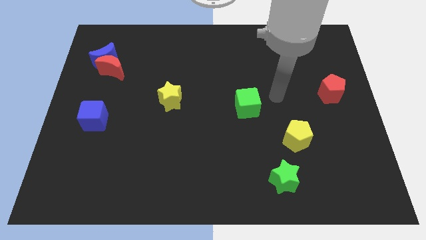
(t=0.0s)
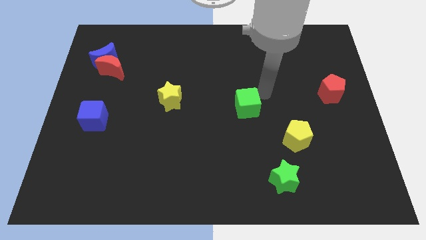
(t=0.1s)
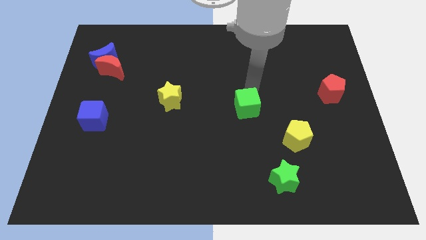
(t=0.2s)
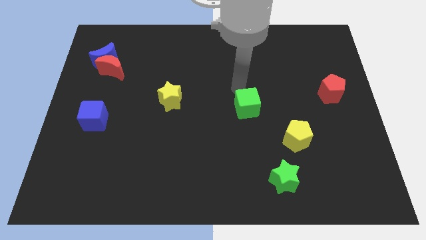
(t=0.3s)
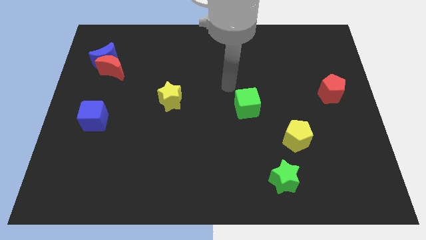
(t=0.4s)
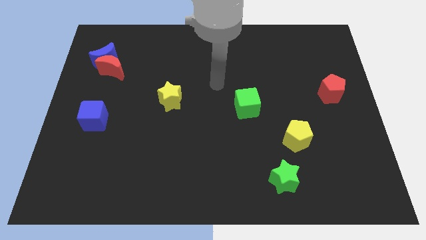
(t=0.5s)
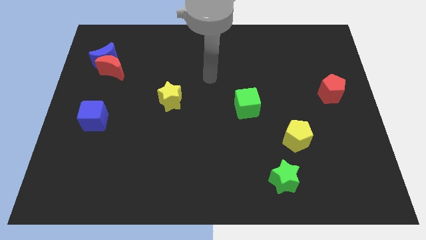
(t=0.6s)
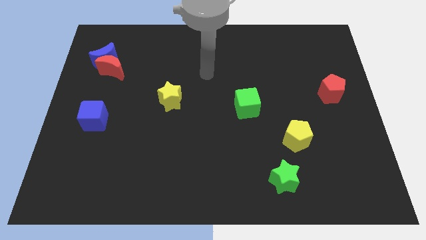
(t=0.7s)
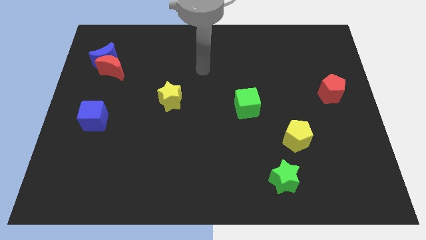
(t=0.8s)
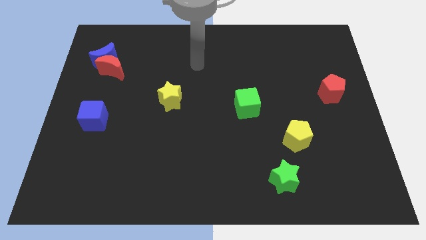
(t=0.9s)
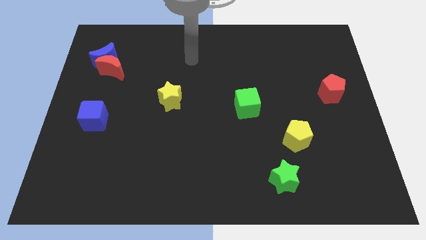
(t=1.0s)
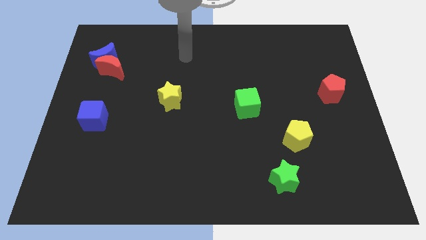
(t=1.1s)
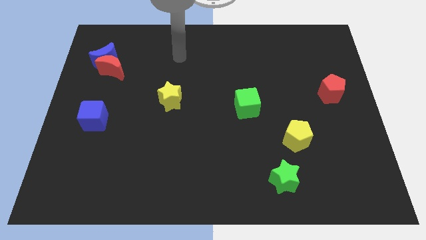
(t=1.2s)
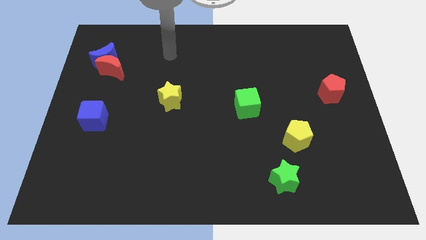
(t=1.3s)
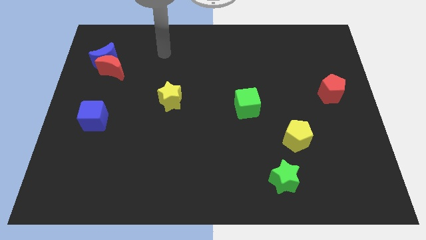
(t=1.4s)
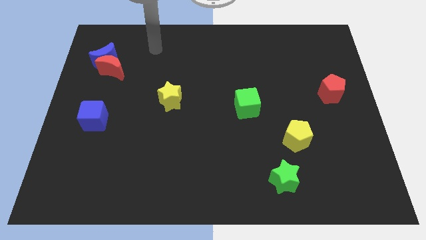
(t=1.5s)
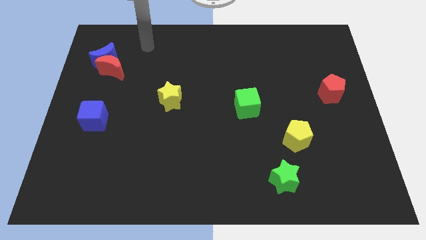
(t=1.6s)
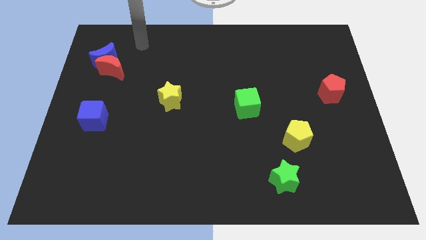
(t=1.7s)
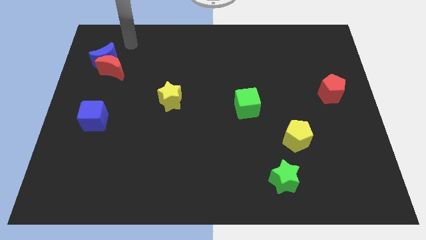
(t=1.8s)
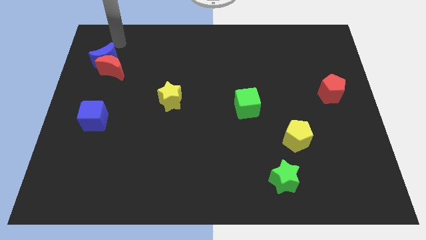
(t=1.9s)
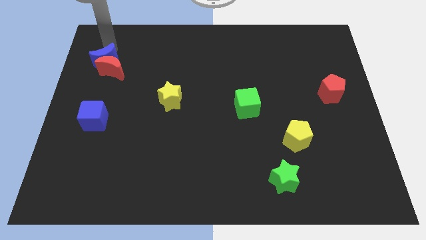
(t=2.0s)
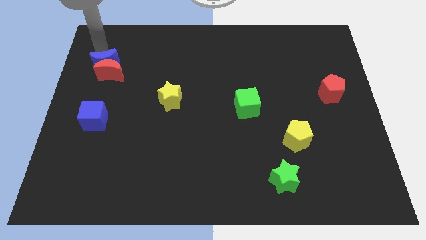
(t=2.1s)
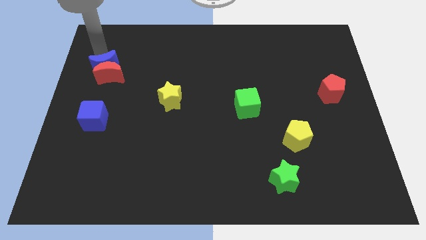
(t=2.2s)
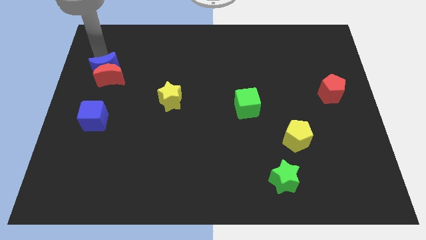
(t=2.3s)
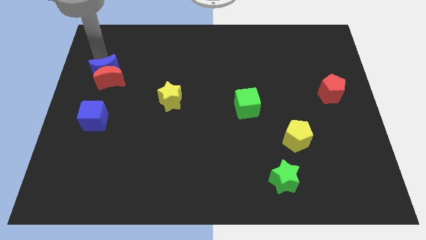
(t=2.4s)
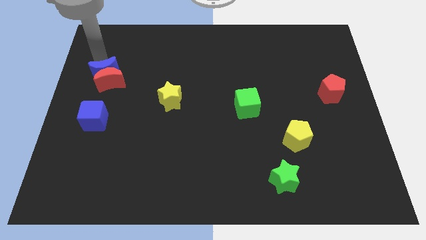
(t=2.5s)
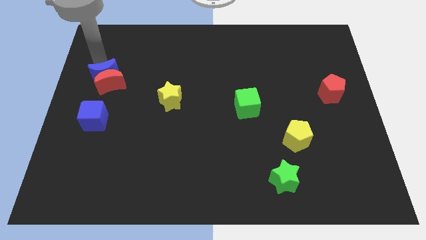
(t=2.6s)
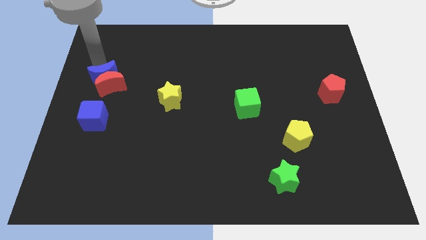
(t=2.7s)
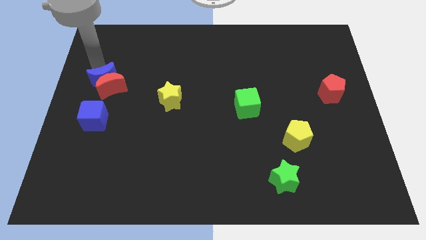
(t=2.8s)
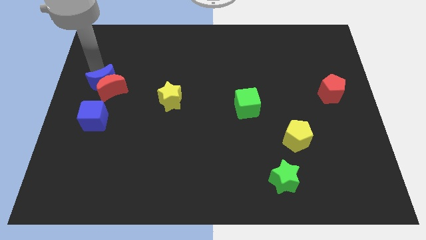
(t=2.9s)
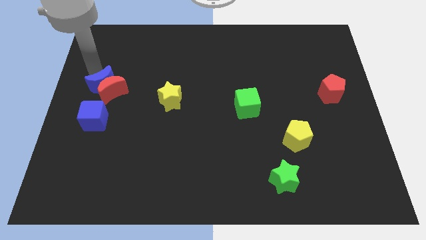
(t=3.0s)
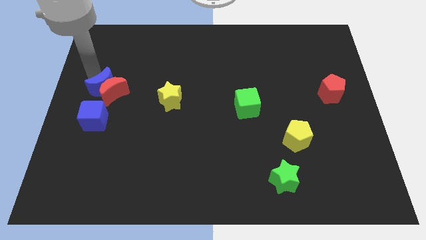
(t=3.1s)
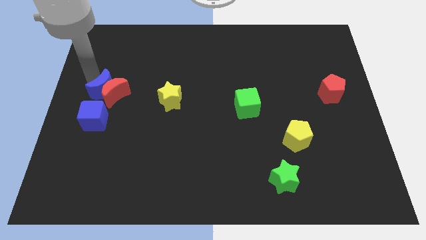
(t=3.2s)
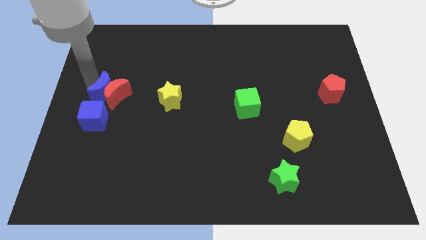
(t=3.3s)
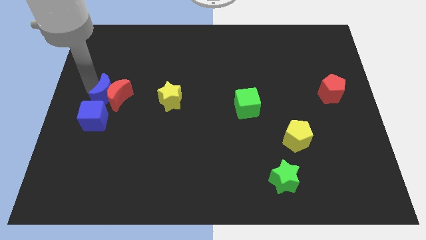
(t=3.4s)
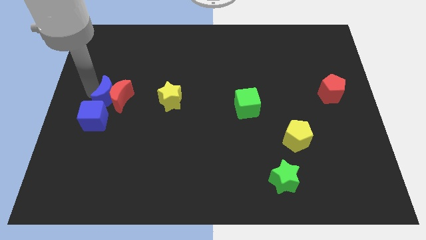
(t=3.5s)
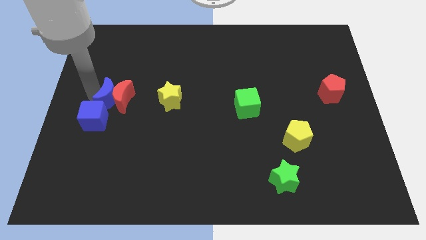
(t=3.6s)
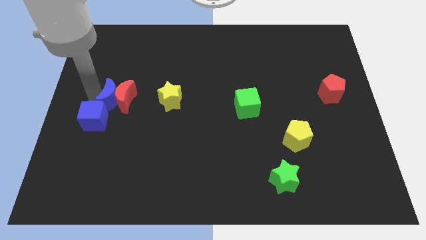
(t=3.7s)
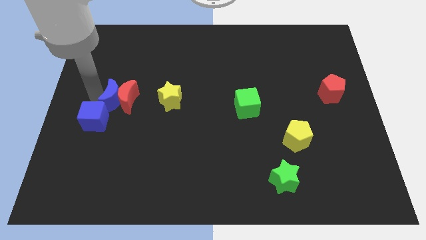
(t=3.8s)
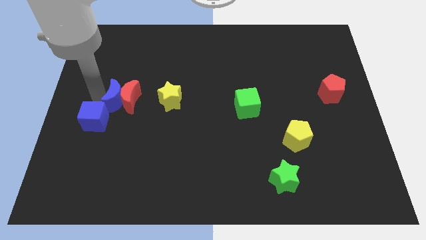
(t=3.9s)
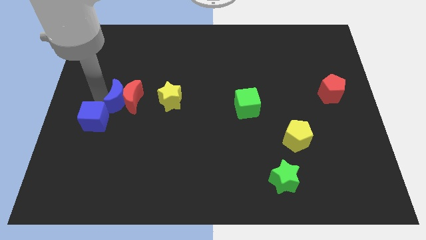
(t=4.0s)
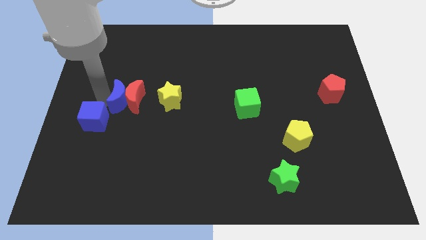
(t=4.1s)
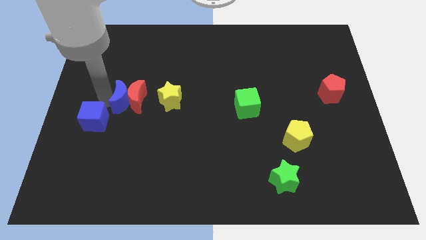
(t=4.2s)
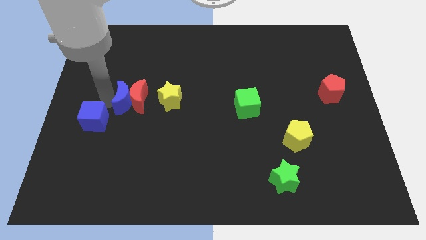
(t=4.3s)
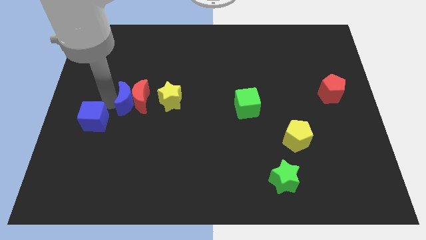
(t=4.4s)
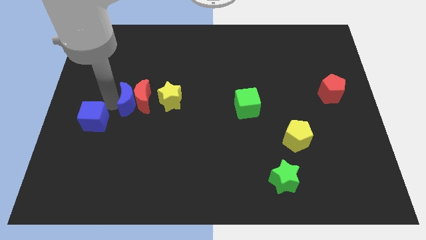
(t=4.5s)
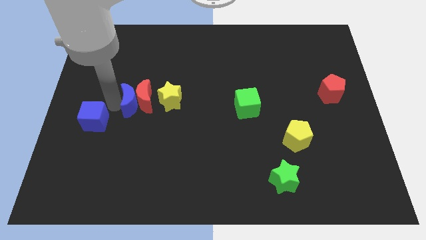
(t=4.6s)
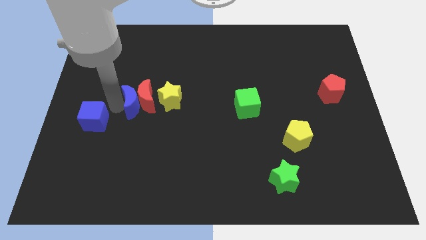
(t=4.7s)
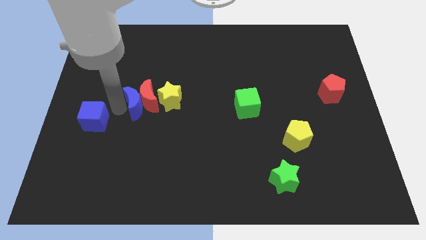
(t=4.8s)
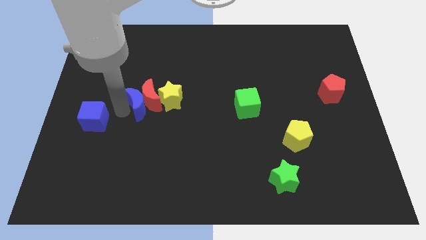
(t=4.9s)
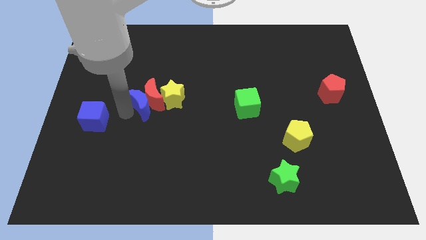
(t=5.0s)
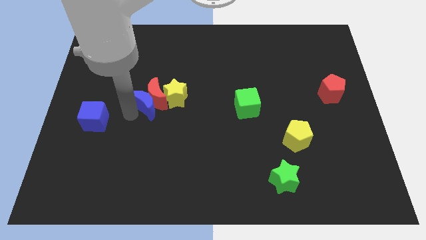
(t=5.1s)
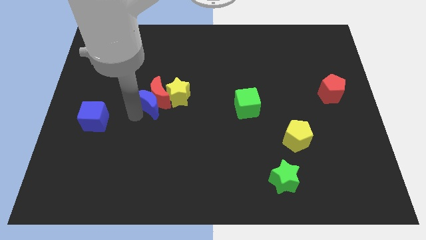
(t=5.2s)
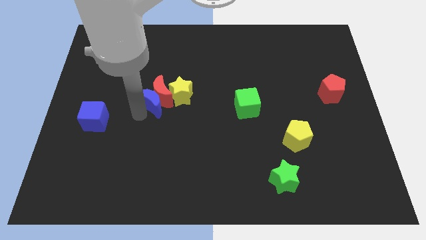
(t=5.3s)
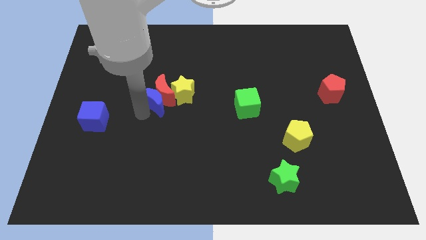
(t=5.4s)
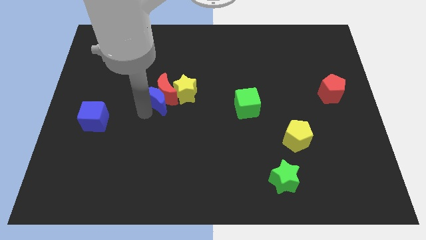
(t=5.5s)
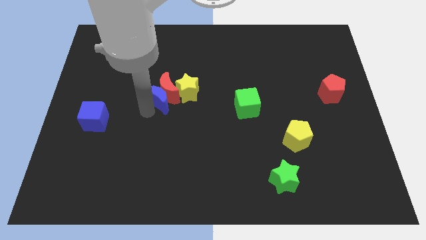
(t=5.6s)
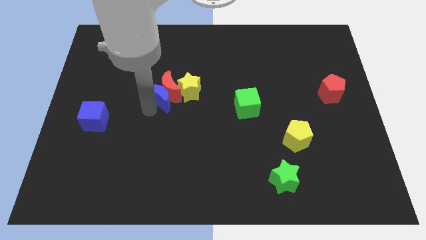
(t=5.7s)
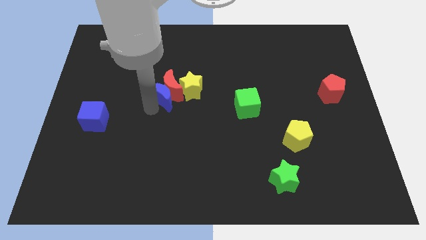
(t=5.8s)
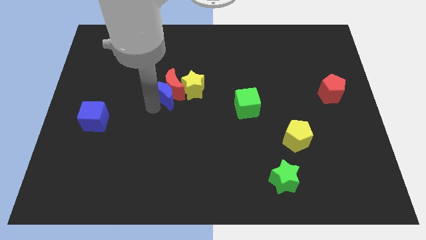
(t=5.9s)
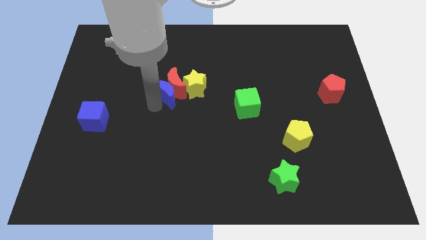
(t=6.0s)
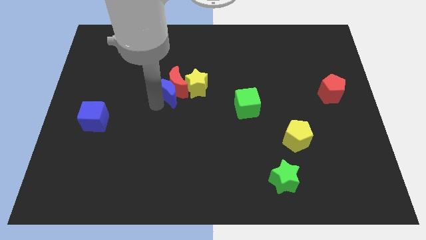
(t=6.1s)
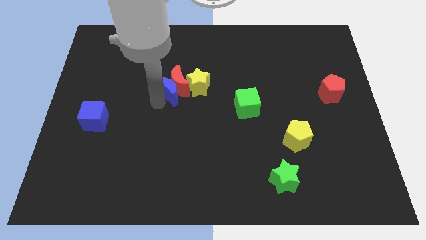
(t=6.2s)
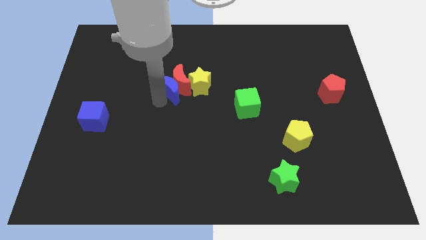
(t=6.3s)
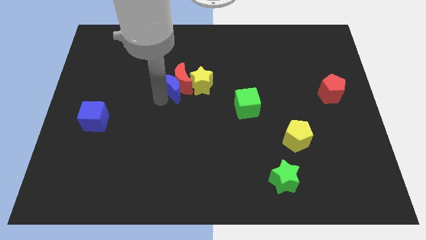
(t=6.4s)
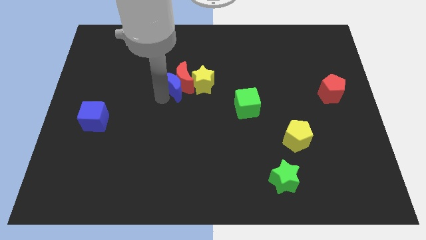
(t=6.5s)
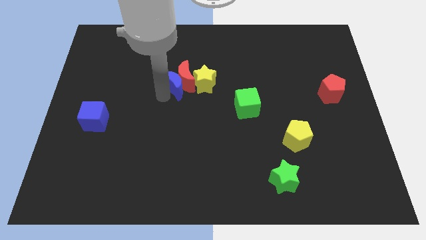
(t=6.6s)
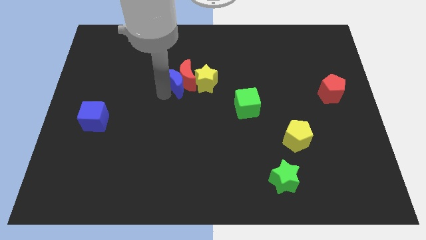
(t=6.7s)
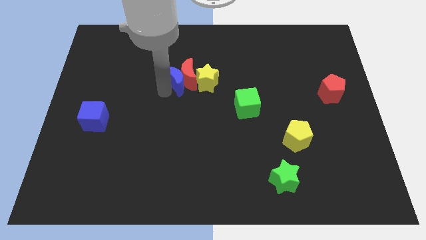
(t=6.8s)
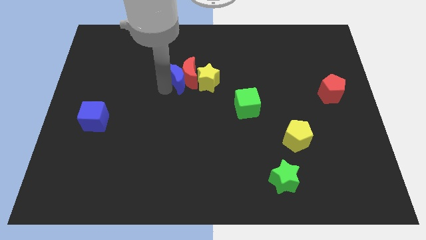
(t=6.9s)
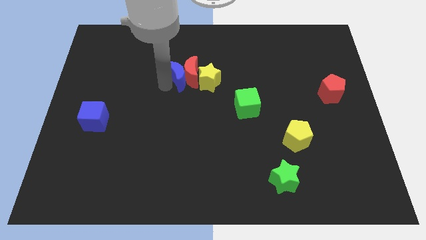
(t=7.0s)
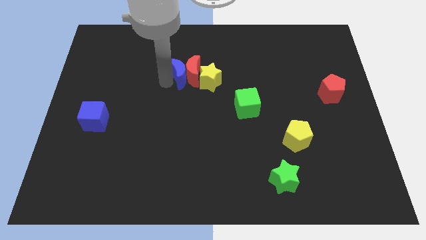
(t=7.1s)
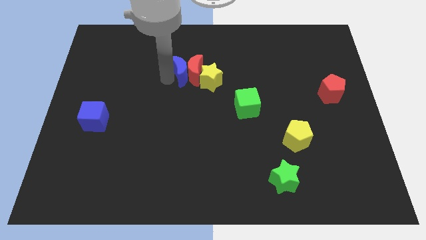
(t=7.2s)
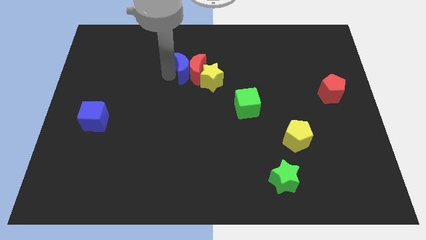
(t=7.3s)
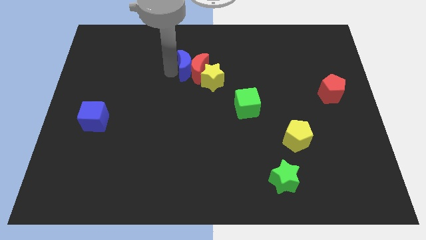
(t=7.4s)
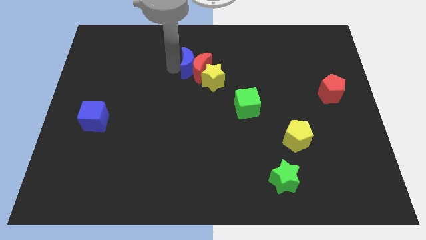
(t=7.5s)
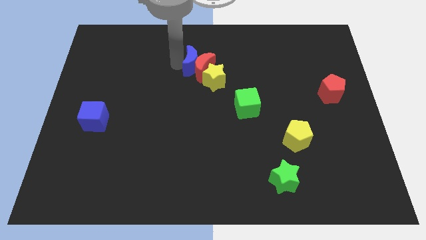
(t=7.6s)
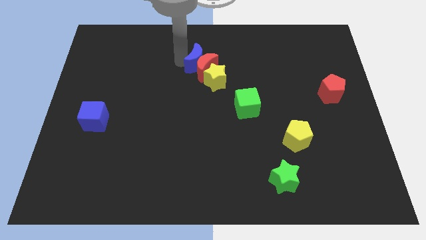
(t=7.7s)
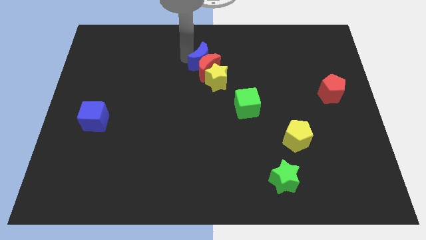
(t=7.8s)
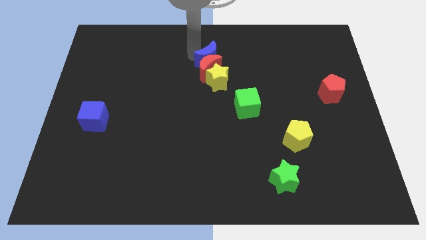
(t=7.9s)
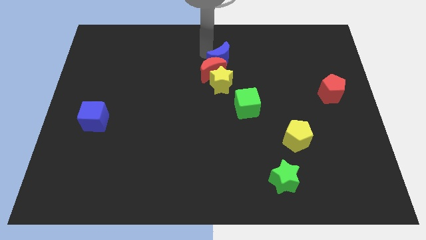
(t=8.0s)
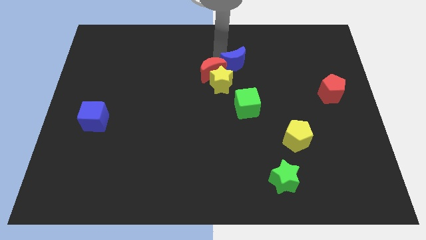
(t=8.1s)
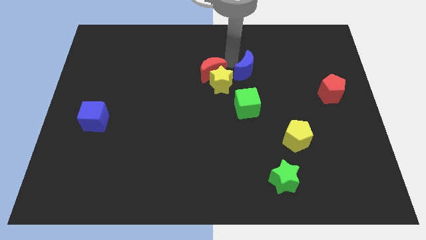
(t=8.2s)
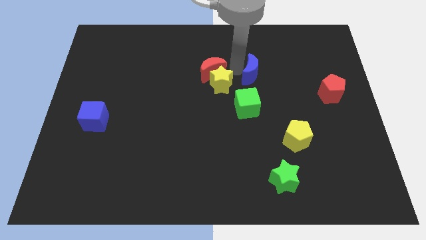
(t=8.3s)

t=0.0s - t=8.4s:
move the red moon away from the blue moon

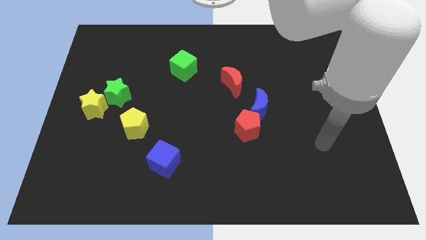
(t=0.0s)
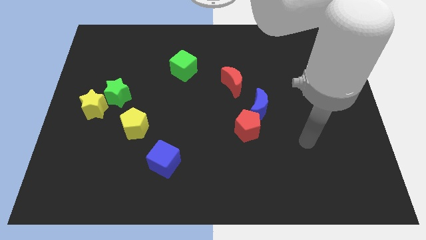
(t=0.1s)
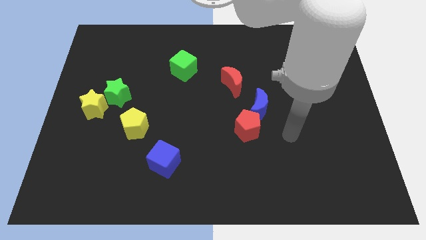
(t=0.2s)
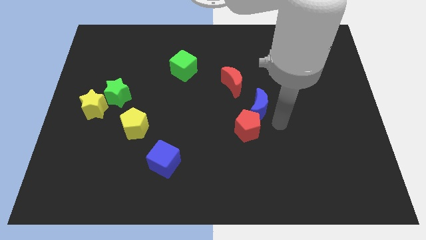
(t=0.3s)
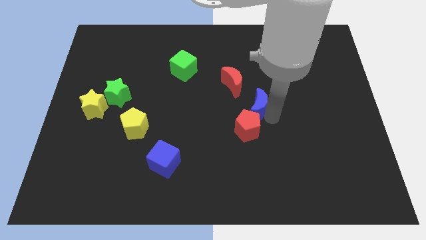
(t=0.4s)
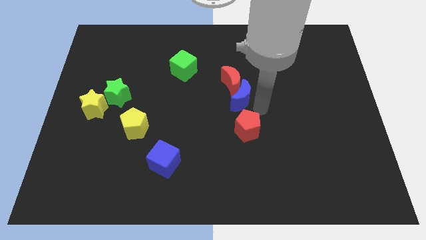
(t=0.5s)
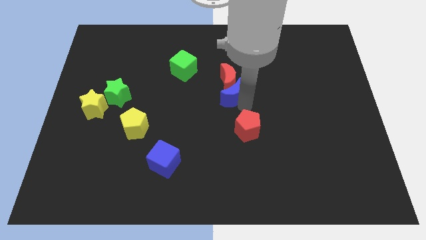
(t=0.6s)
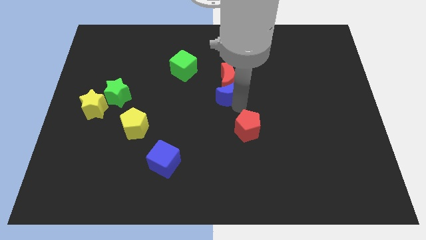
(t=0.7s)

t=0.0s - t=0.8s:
move the red pentagon away from the blue moon

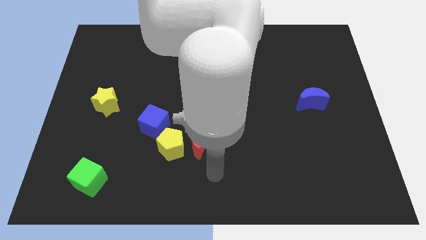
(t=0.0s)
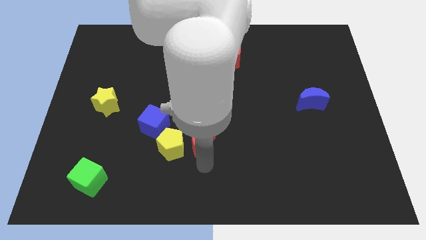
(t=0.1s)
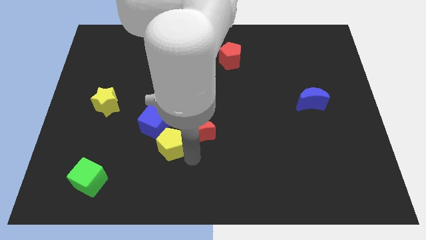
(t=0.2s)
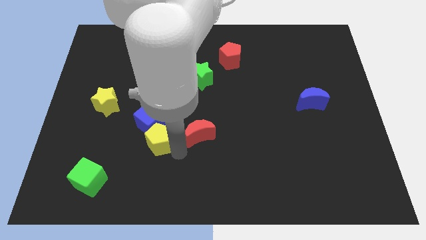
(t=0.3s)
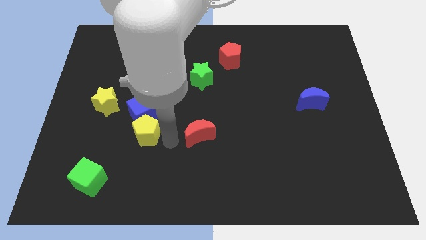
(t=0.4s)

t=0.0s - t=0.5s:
move the red moon away from the yellow pentagon
